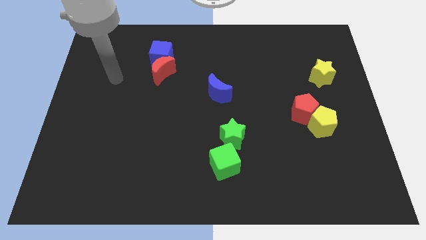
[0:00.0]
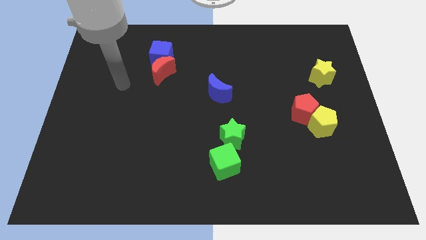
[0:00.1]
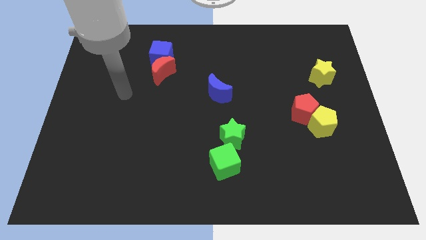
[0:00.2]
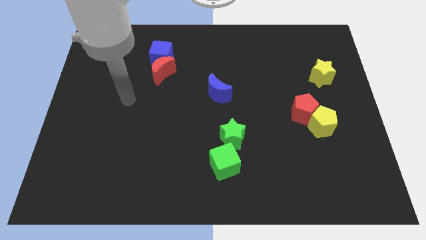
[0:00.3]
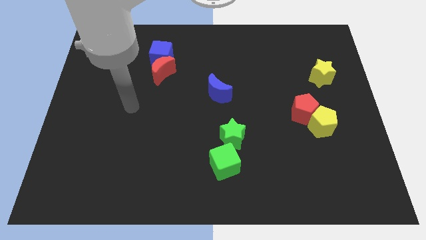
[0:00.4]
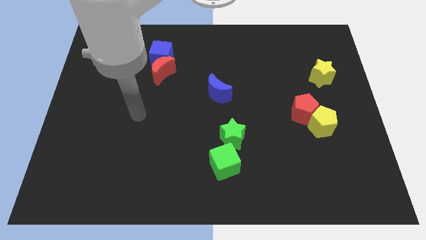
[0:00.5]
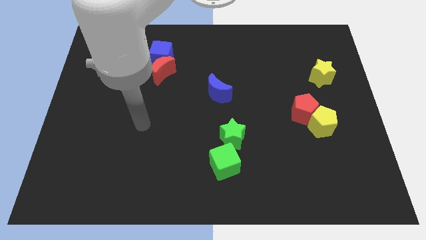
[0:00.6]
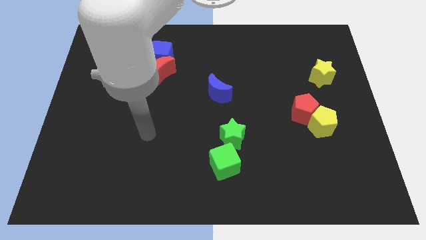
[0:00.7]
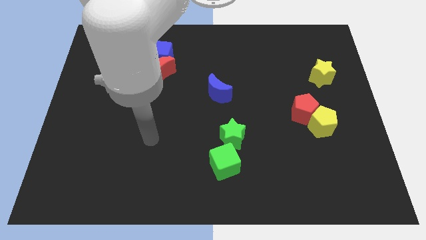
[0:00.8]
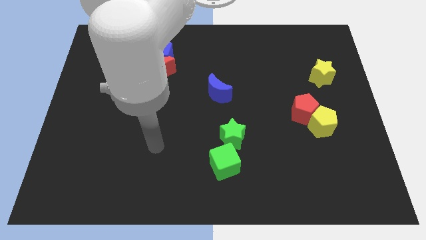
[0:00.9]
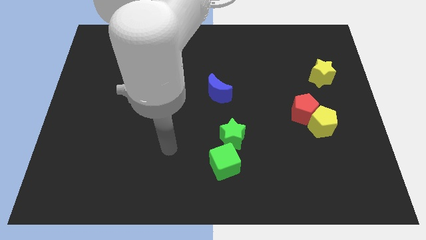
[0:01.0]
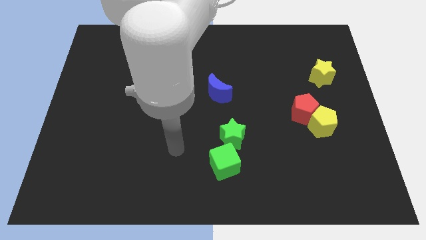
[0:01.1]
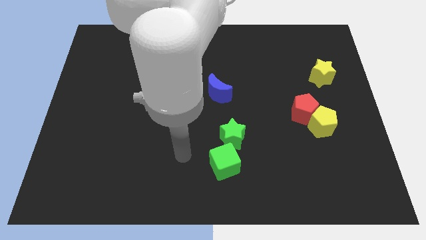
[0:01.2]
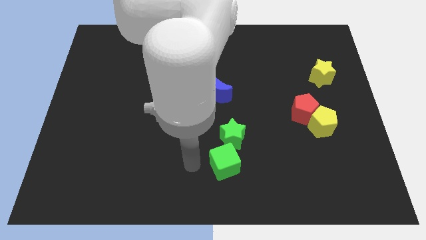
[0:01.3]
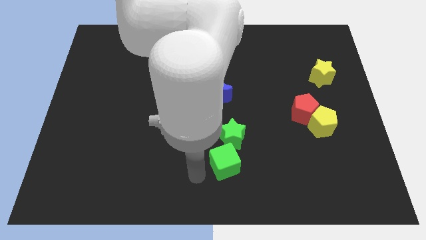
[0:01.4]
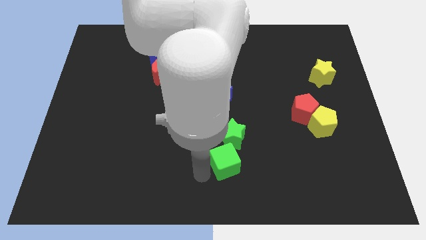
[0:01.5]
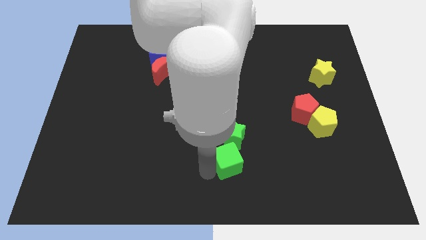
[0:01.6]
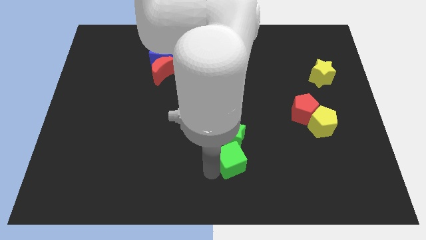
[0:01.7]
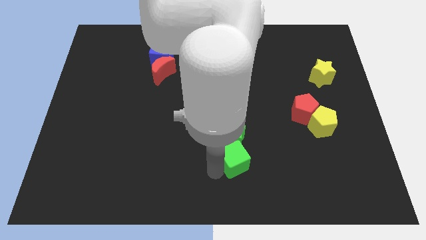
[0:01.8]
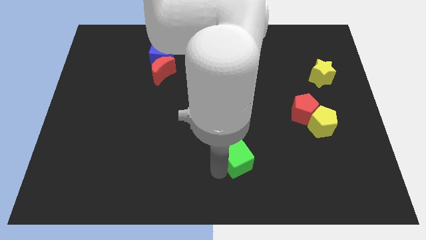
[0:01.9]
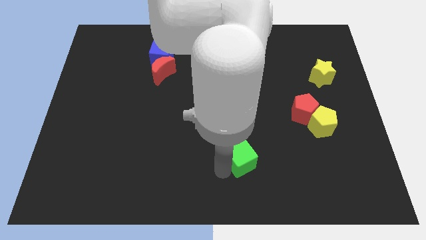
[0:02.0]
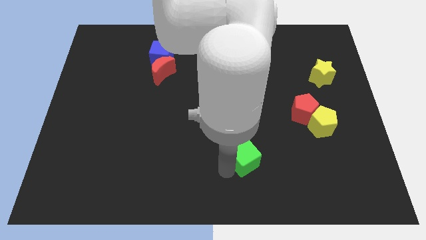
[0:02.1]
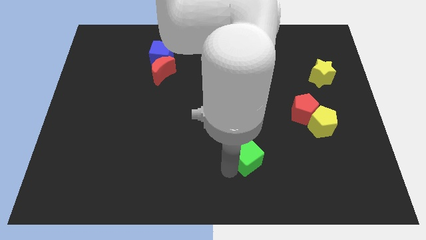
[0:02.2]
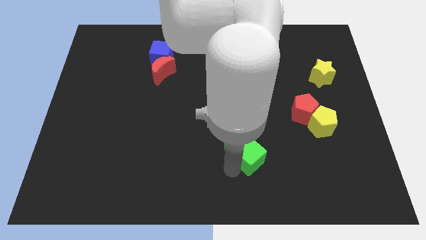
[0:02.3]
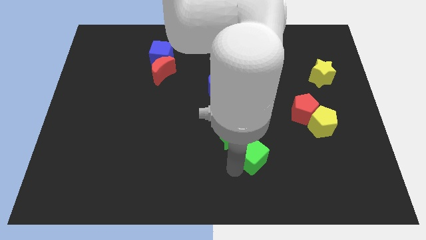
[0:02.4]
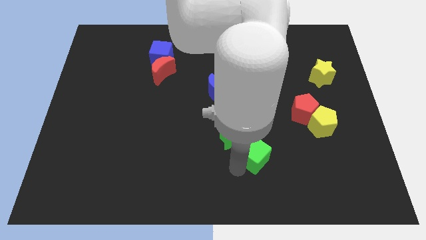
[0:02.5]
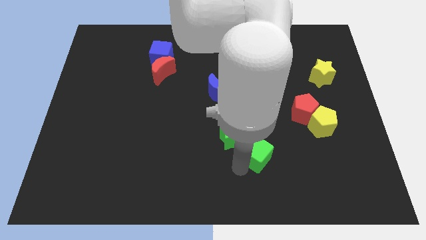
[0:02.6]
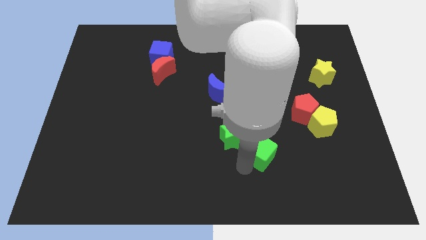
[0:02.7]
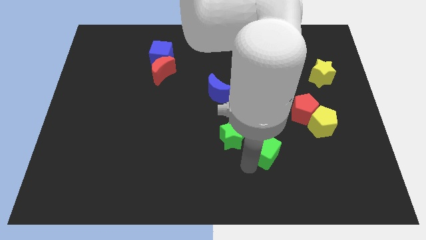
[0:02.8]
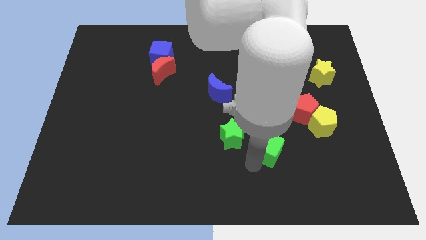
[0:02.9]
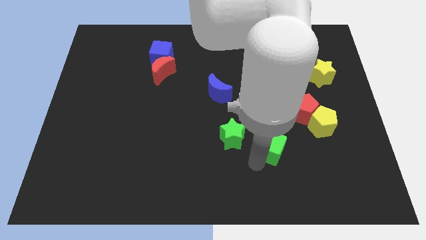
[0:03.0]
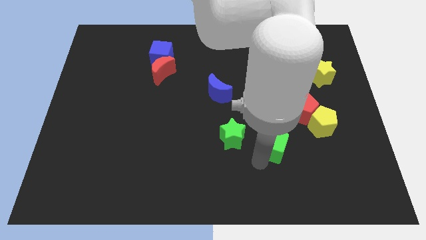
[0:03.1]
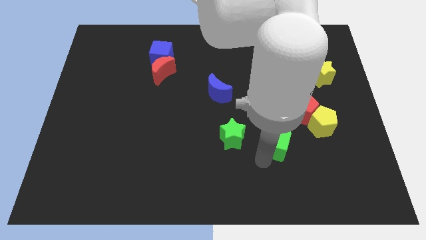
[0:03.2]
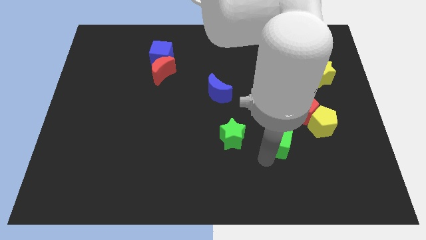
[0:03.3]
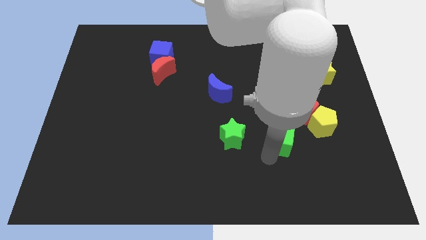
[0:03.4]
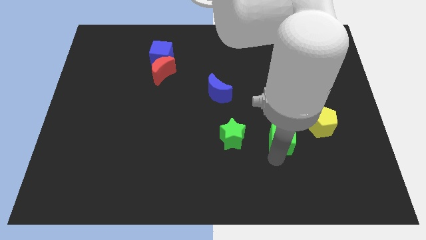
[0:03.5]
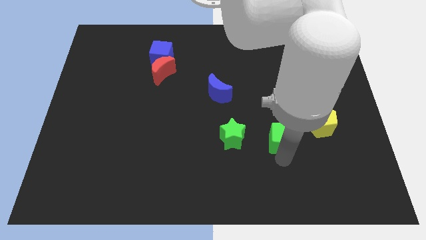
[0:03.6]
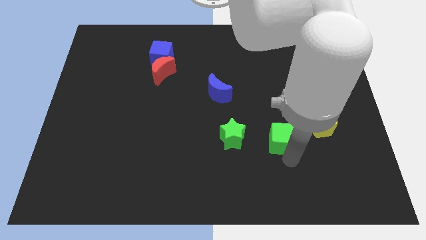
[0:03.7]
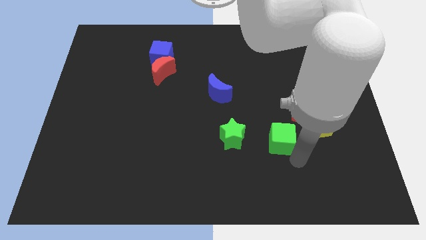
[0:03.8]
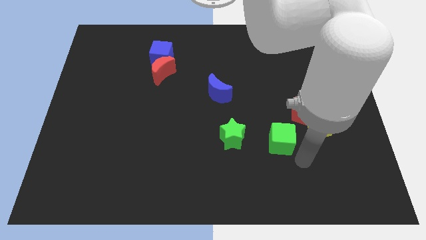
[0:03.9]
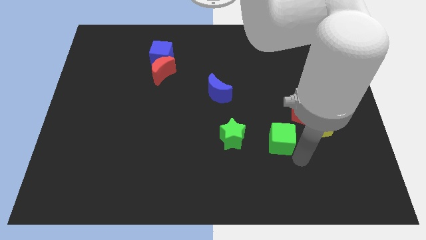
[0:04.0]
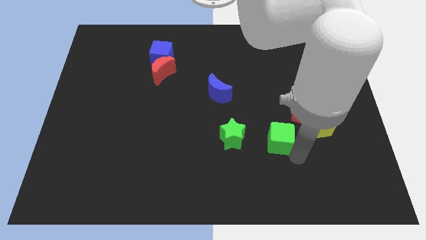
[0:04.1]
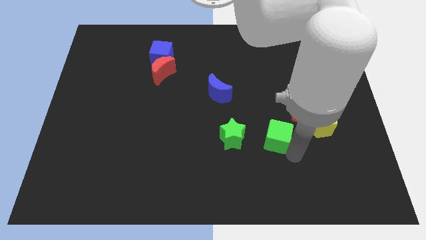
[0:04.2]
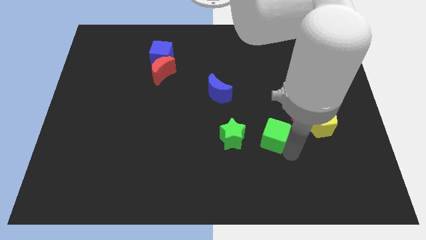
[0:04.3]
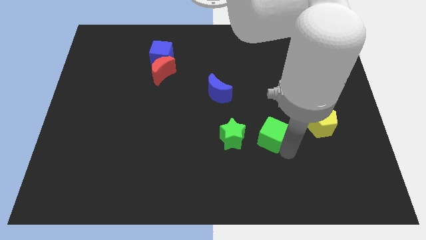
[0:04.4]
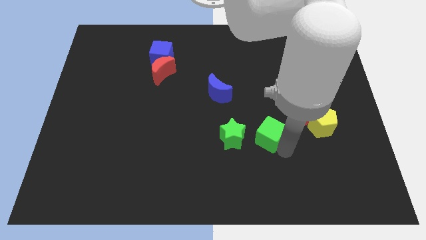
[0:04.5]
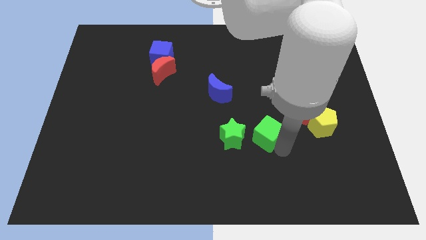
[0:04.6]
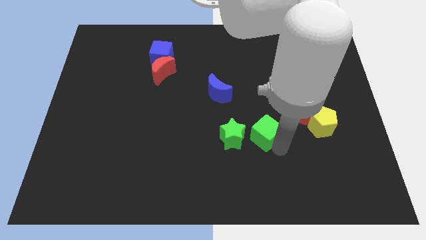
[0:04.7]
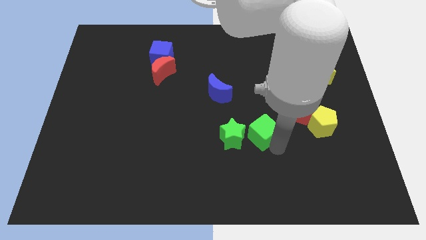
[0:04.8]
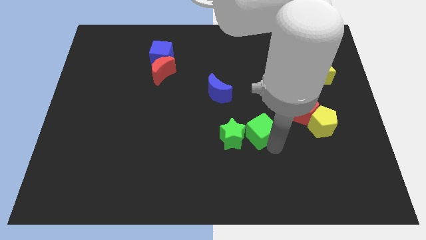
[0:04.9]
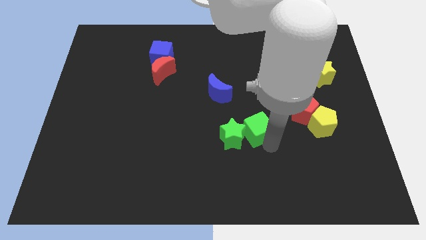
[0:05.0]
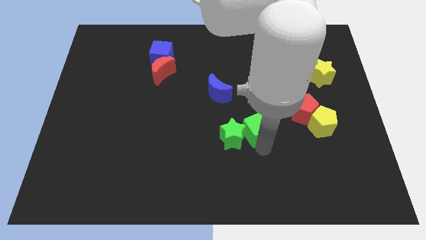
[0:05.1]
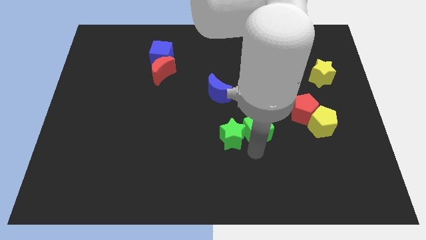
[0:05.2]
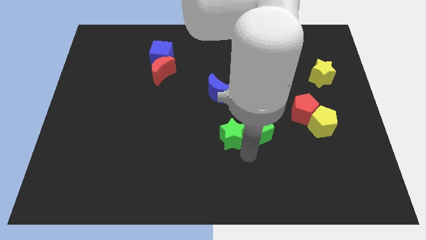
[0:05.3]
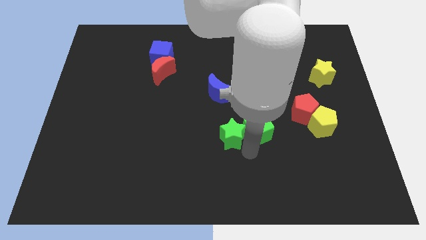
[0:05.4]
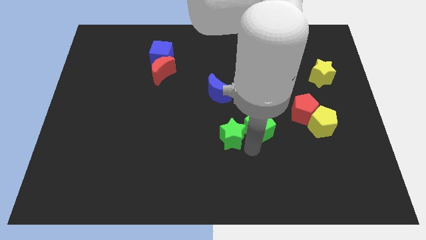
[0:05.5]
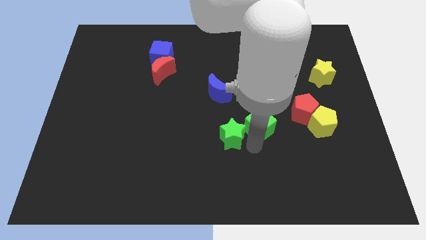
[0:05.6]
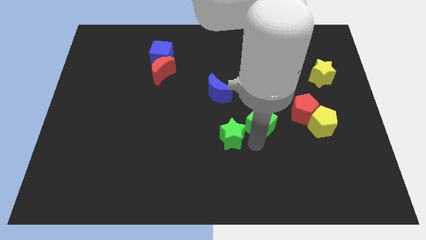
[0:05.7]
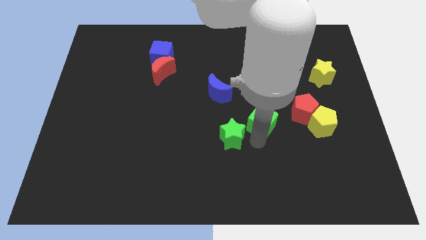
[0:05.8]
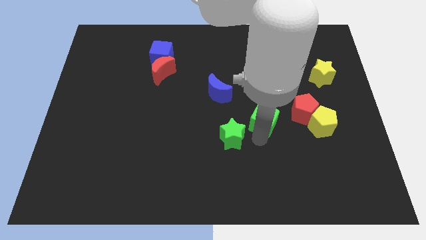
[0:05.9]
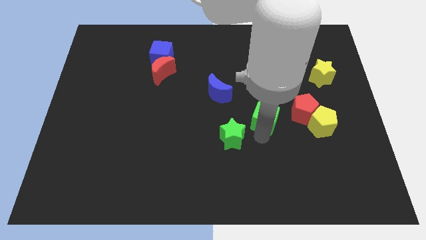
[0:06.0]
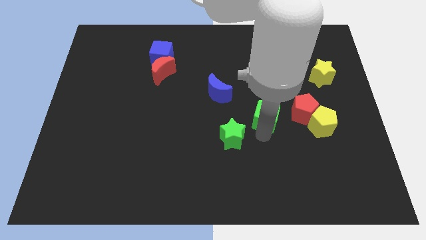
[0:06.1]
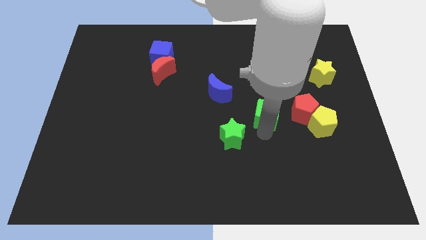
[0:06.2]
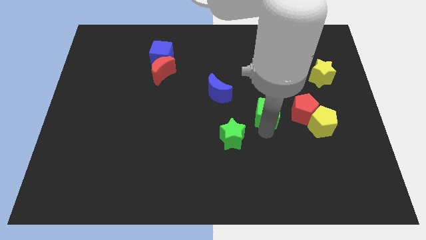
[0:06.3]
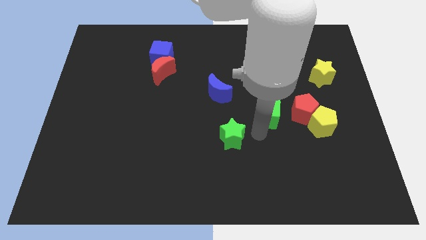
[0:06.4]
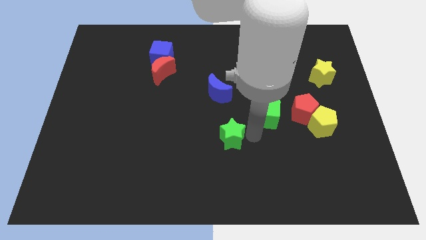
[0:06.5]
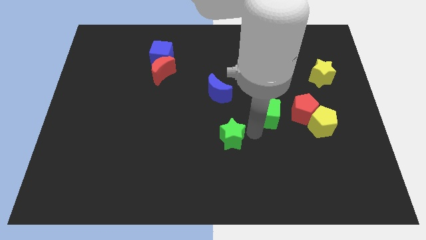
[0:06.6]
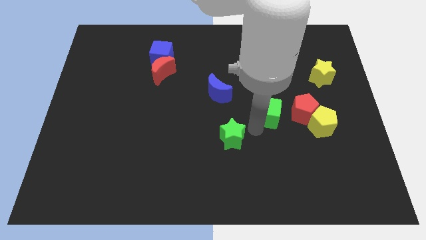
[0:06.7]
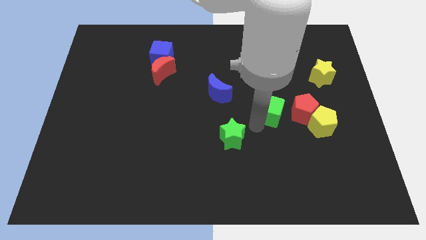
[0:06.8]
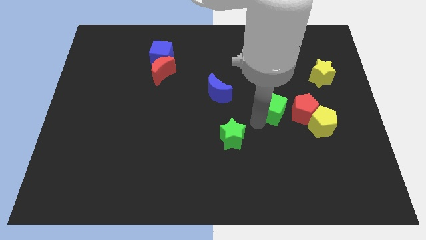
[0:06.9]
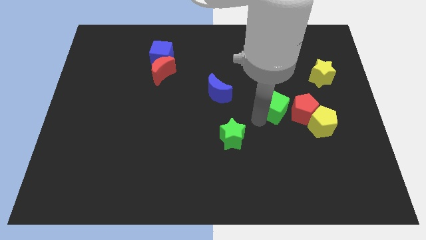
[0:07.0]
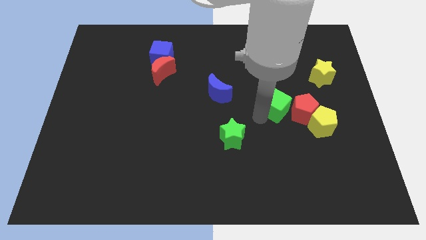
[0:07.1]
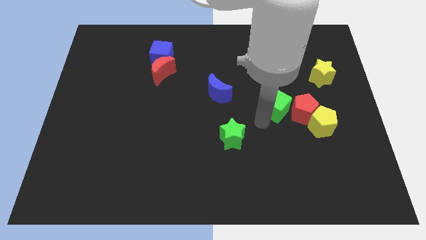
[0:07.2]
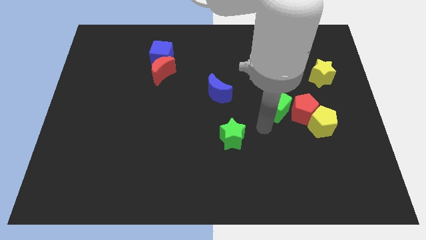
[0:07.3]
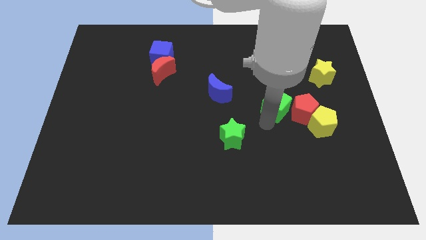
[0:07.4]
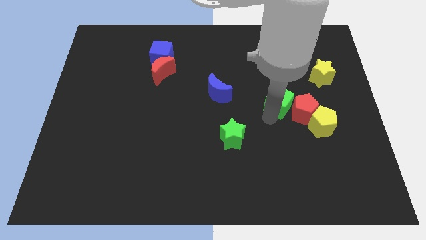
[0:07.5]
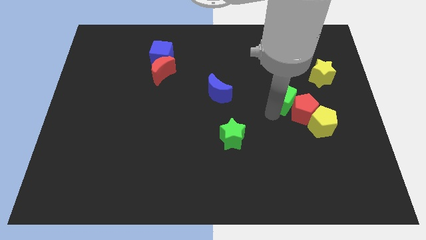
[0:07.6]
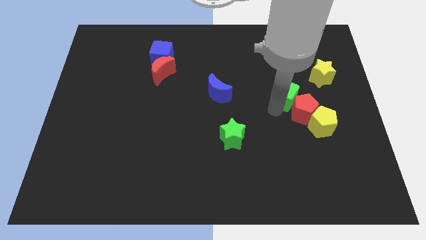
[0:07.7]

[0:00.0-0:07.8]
put the green cube to the top of the red pentagon
